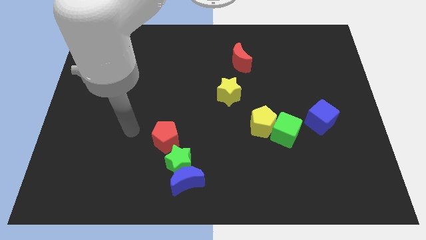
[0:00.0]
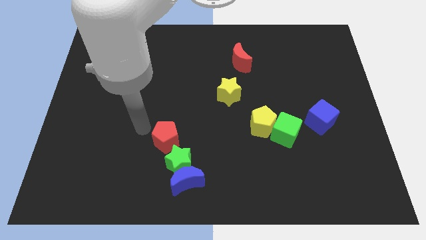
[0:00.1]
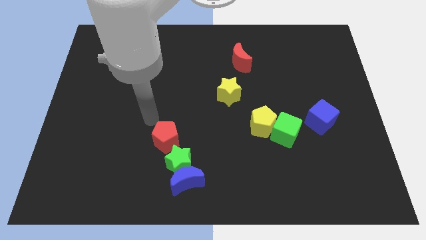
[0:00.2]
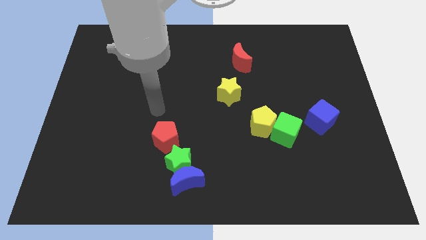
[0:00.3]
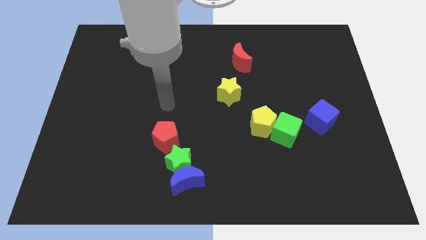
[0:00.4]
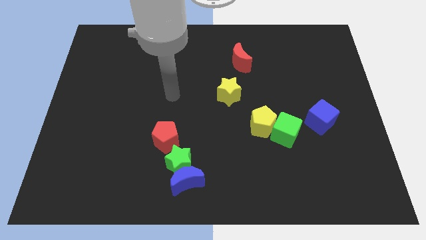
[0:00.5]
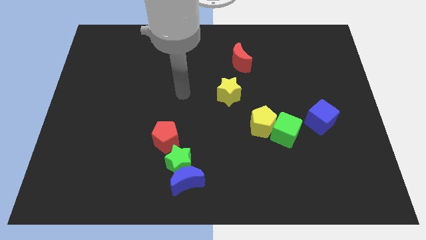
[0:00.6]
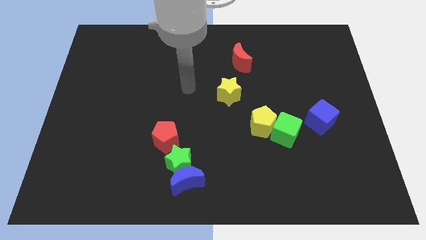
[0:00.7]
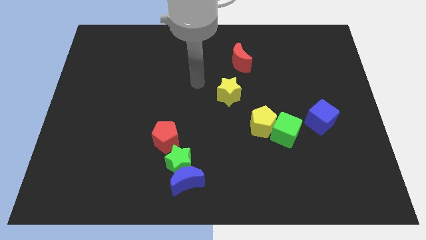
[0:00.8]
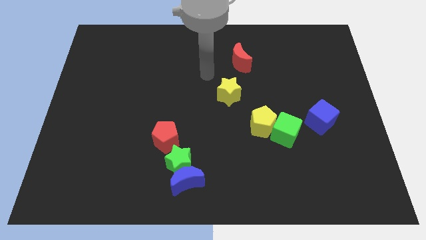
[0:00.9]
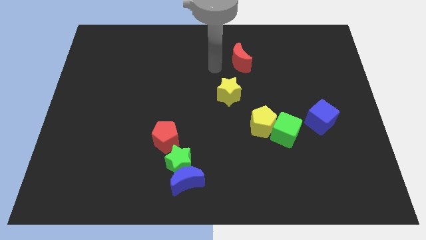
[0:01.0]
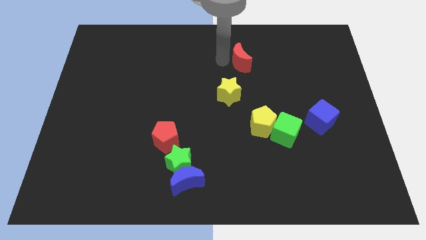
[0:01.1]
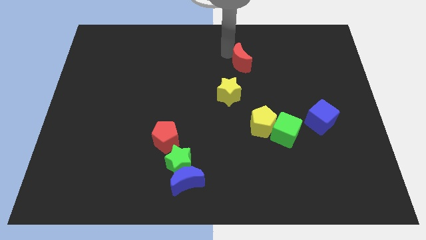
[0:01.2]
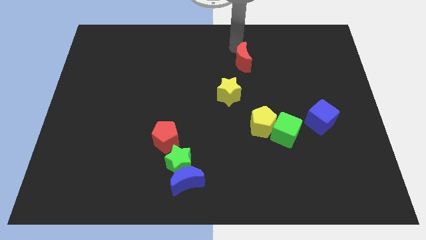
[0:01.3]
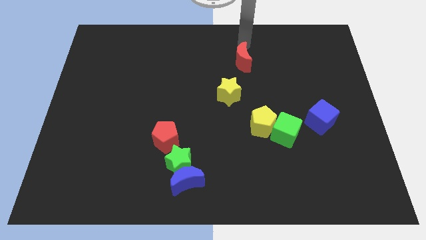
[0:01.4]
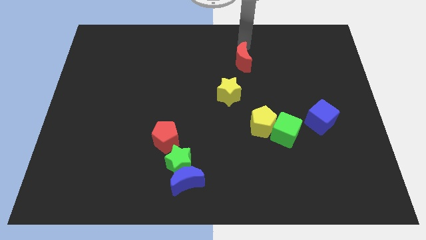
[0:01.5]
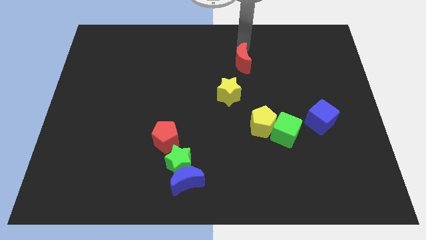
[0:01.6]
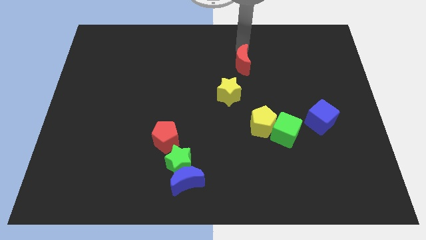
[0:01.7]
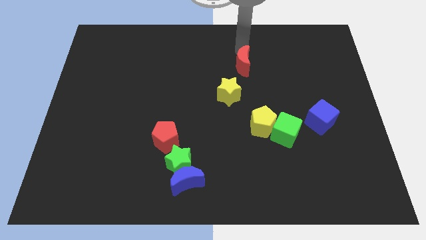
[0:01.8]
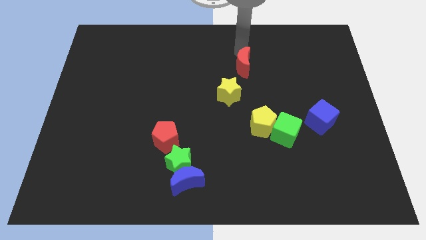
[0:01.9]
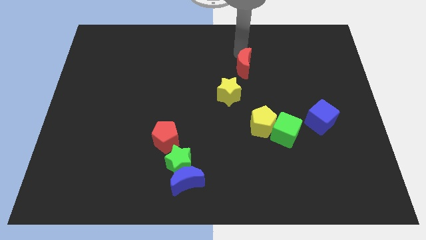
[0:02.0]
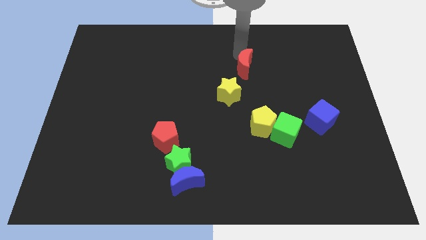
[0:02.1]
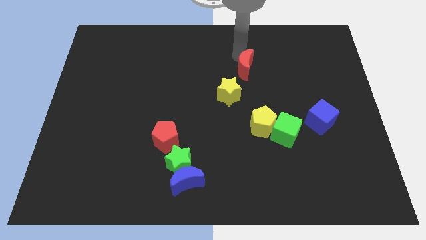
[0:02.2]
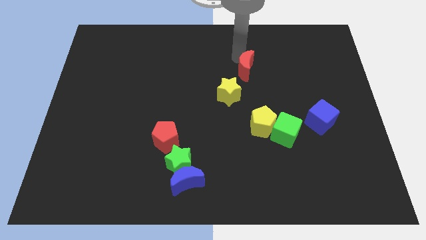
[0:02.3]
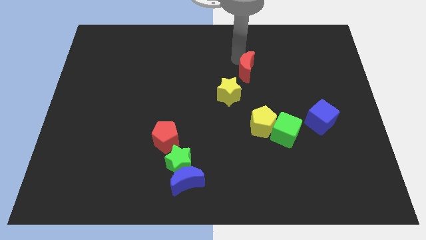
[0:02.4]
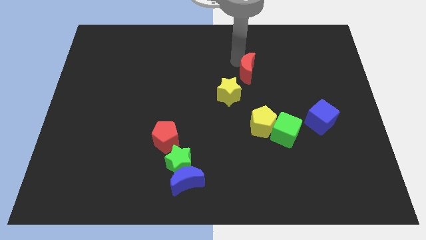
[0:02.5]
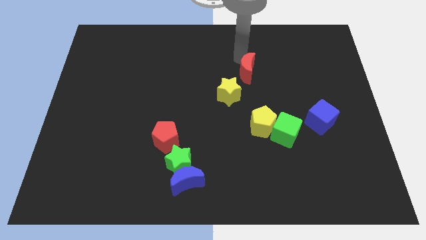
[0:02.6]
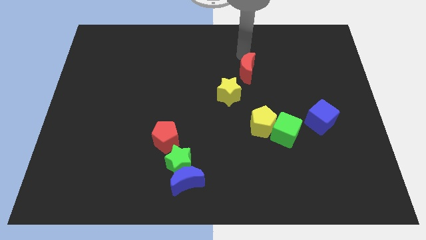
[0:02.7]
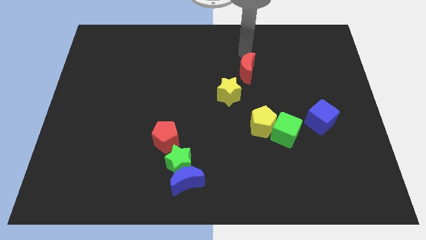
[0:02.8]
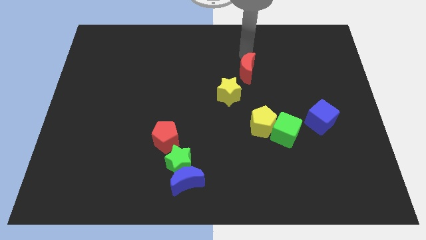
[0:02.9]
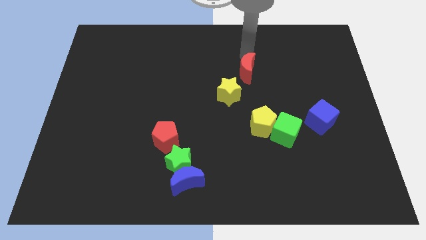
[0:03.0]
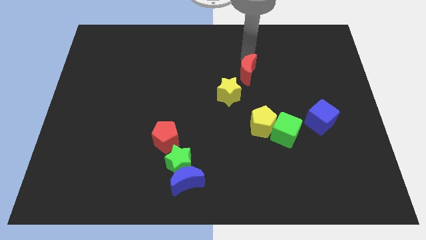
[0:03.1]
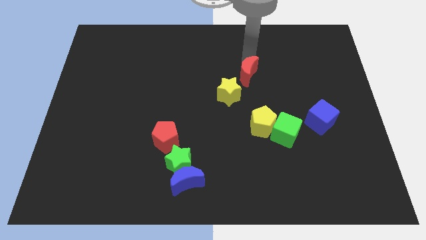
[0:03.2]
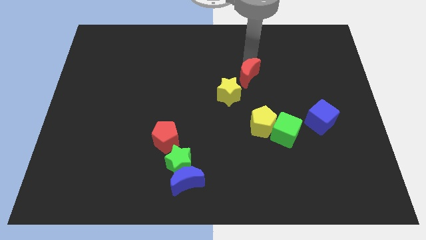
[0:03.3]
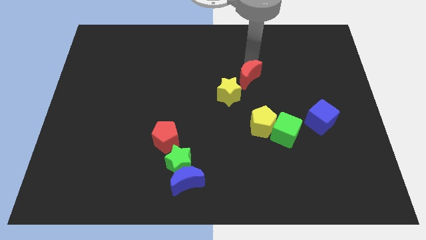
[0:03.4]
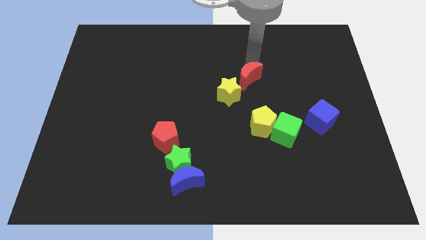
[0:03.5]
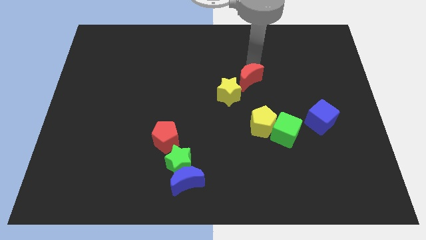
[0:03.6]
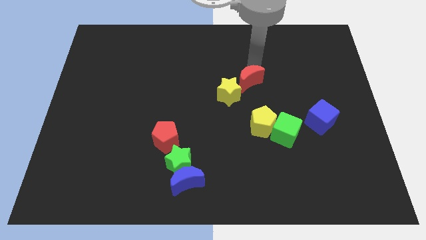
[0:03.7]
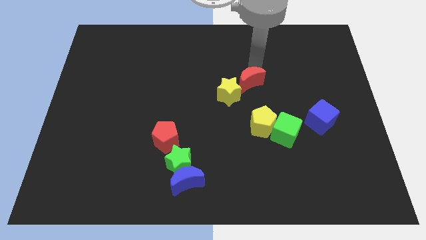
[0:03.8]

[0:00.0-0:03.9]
slightly push the red moon down

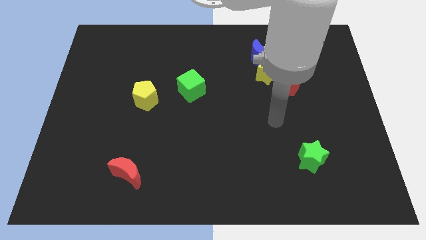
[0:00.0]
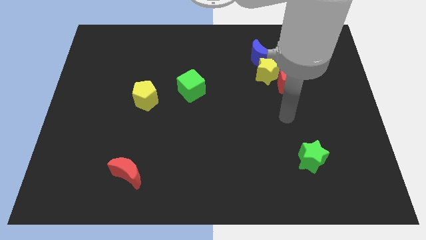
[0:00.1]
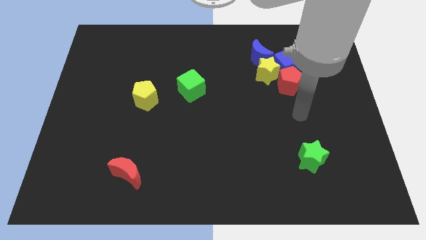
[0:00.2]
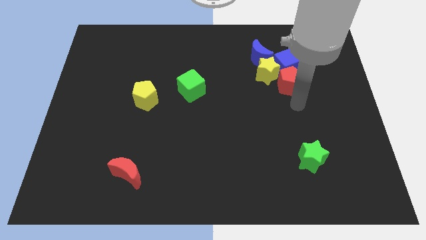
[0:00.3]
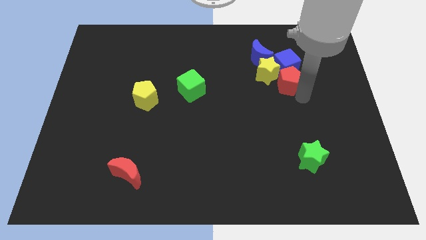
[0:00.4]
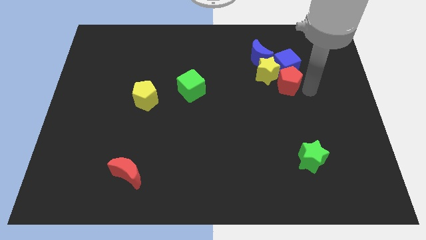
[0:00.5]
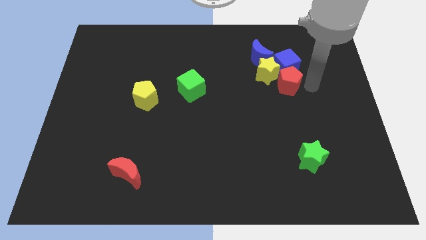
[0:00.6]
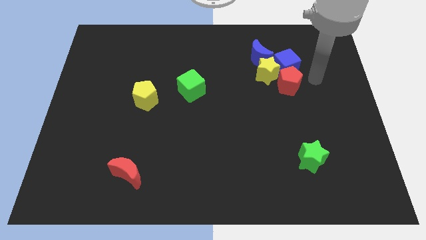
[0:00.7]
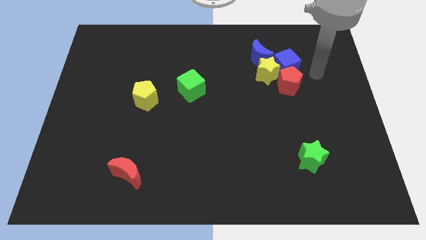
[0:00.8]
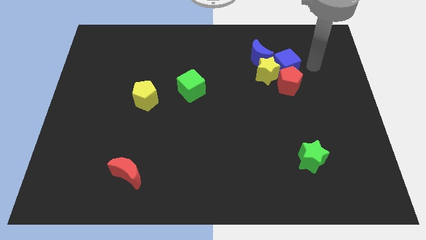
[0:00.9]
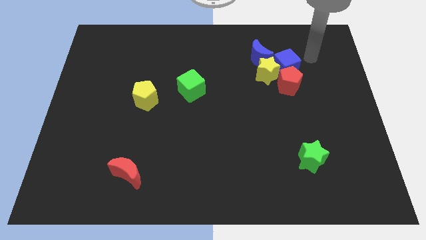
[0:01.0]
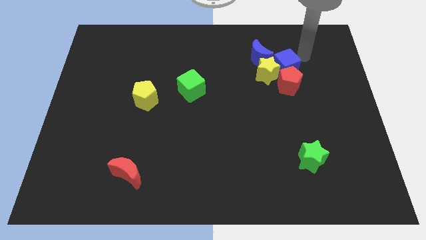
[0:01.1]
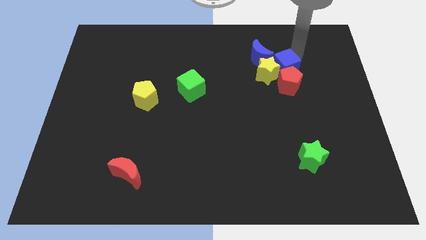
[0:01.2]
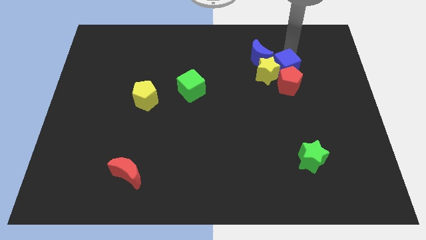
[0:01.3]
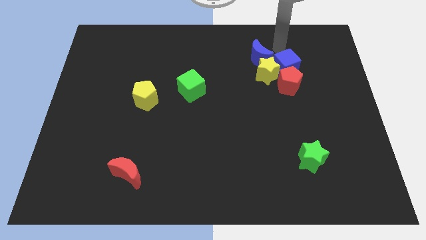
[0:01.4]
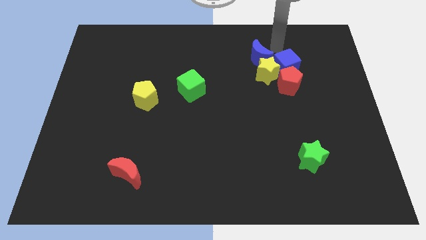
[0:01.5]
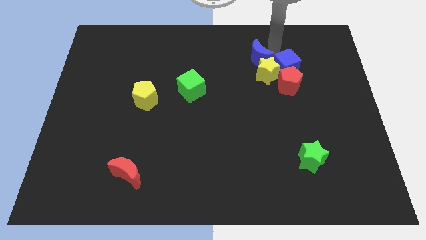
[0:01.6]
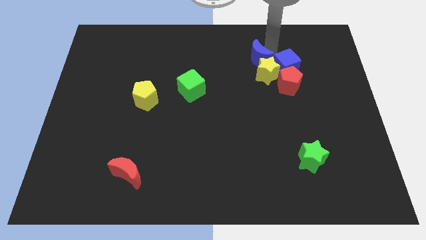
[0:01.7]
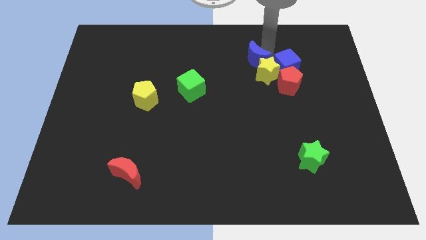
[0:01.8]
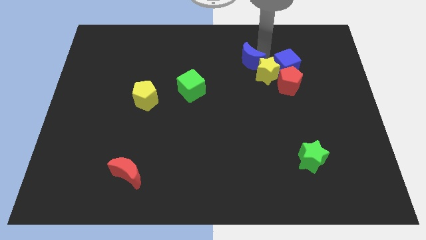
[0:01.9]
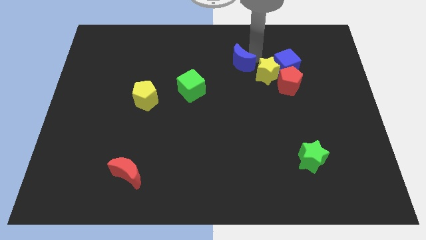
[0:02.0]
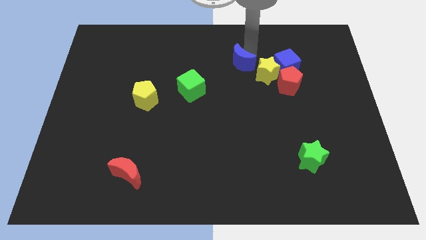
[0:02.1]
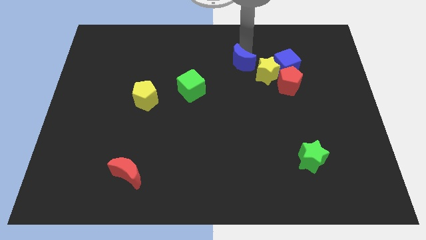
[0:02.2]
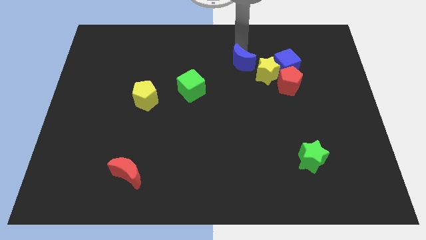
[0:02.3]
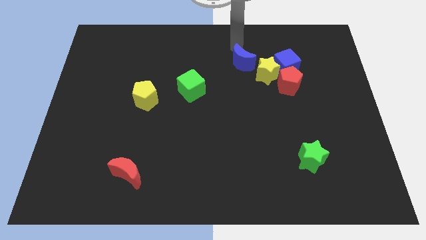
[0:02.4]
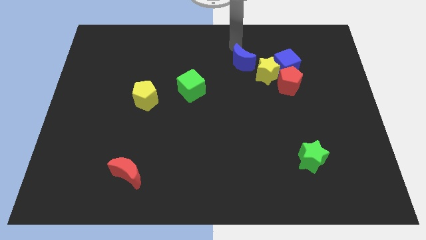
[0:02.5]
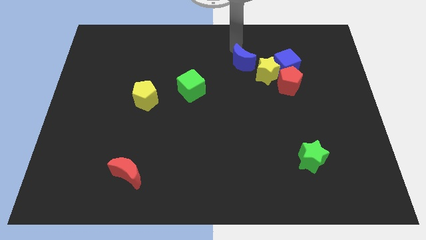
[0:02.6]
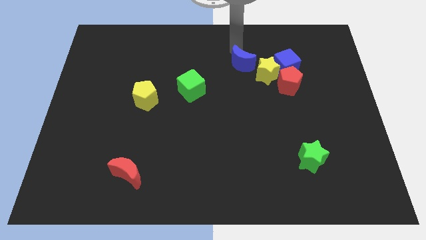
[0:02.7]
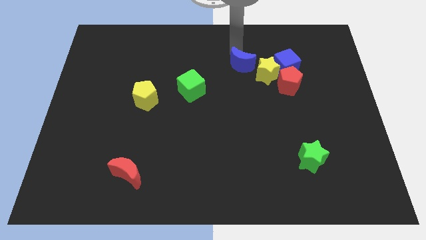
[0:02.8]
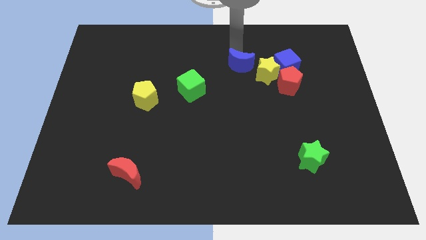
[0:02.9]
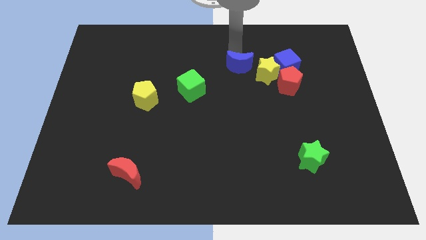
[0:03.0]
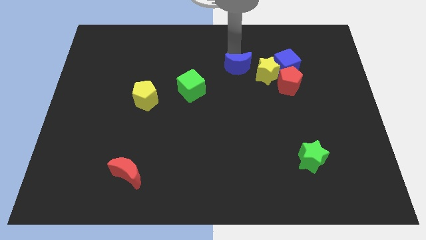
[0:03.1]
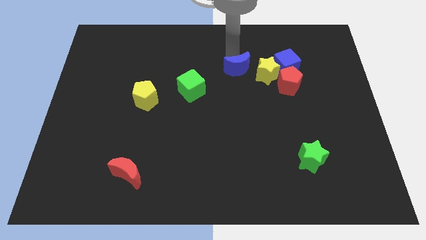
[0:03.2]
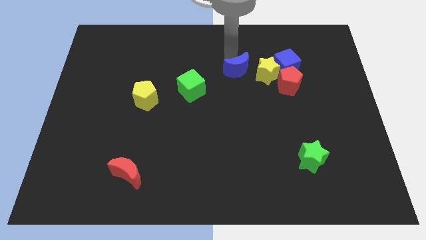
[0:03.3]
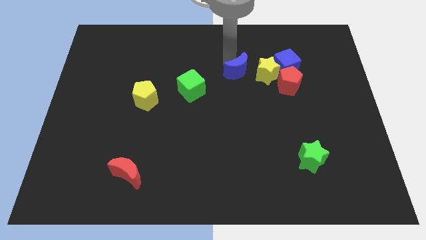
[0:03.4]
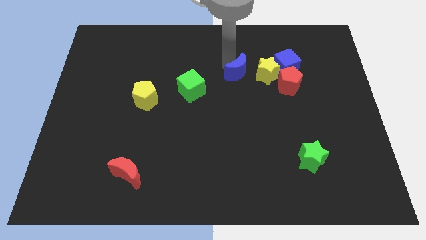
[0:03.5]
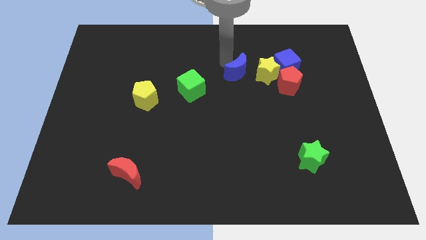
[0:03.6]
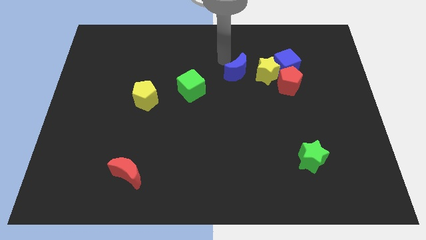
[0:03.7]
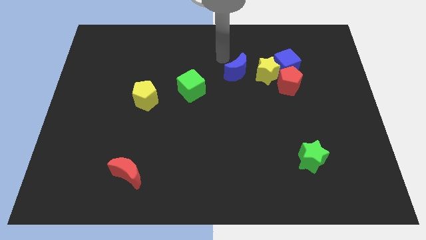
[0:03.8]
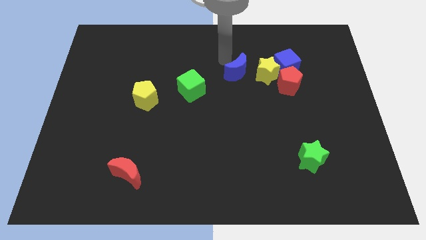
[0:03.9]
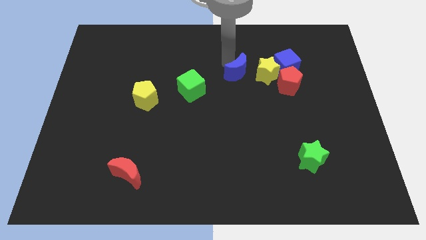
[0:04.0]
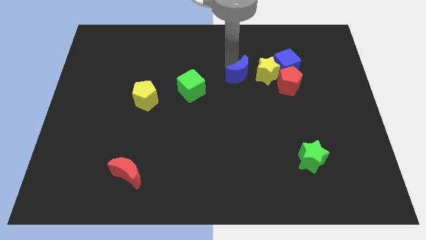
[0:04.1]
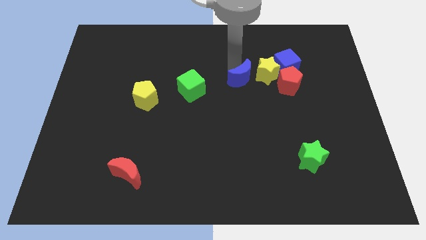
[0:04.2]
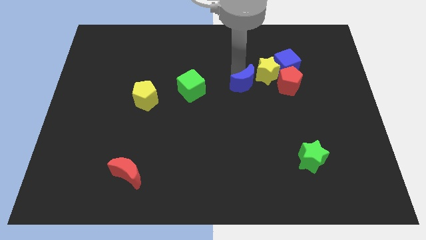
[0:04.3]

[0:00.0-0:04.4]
slide the blue moon a bit down
